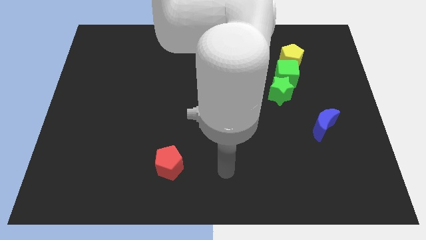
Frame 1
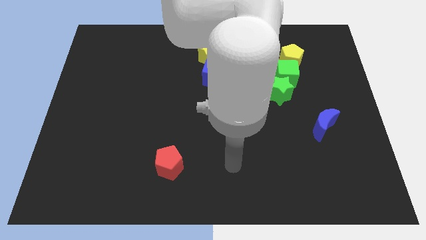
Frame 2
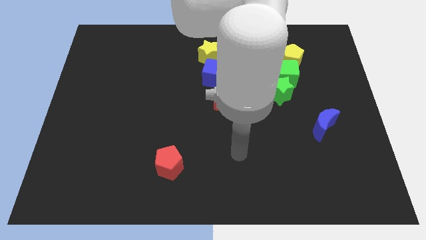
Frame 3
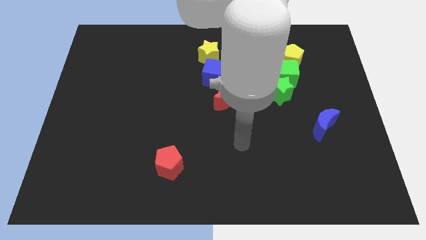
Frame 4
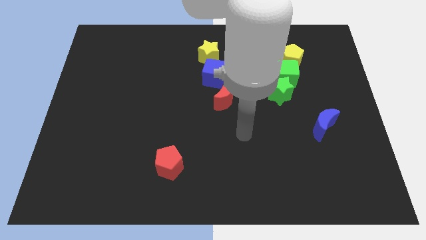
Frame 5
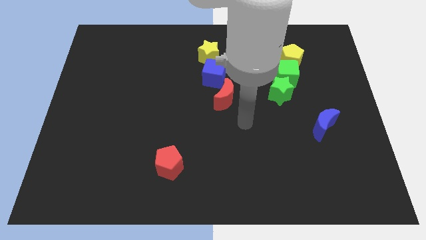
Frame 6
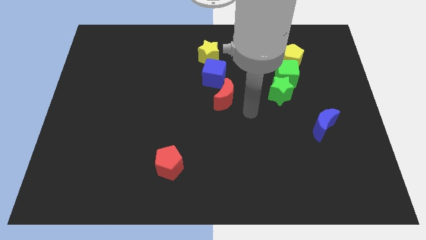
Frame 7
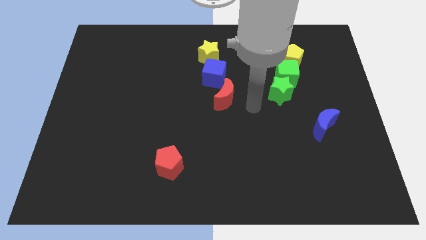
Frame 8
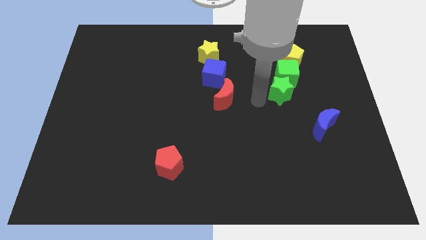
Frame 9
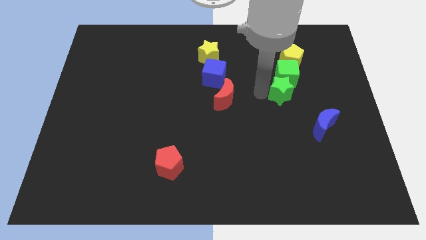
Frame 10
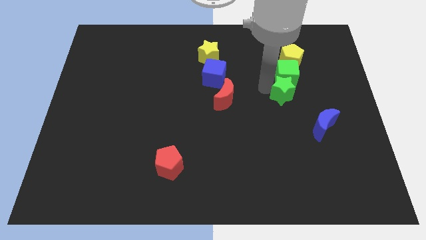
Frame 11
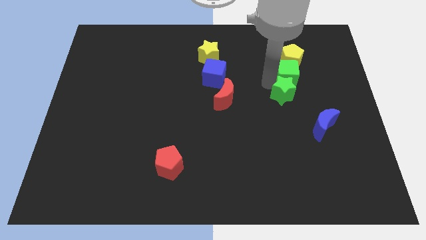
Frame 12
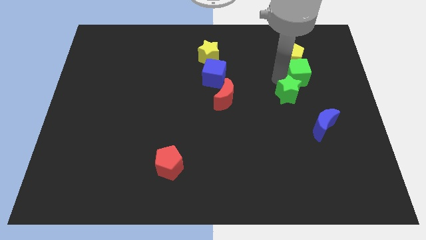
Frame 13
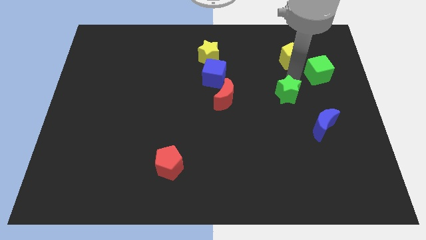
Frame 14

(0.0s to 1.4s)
pull the green star apart from the green cube

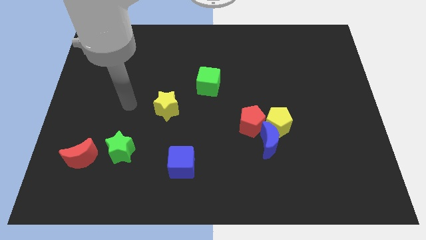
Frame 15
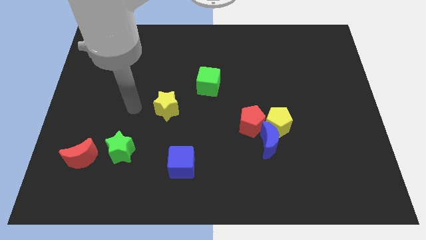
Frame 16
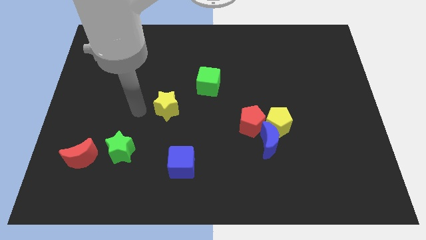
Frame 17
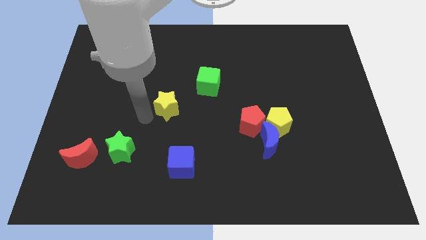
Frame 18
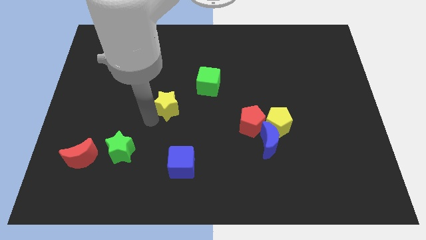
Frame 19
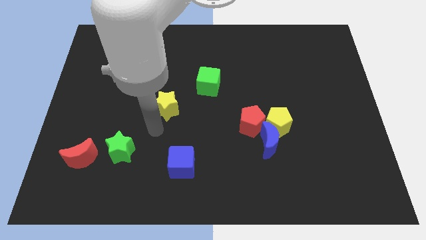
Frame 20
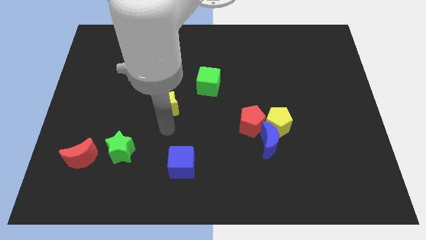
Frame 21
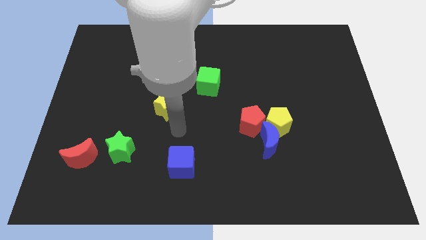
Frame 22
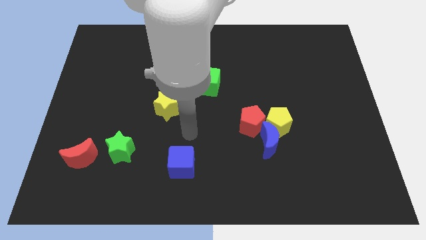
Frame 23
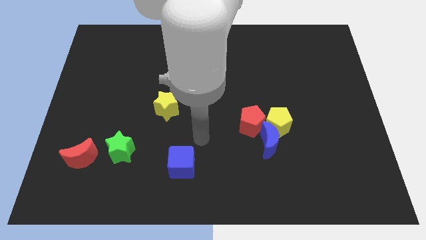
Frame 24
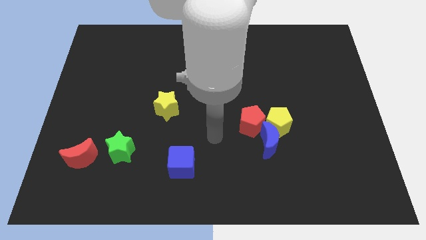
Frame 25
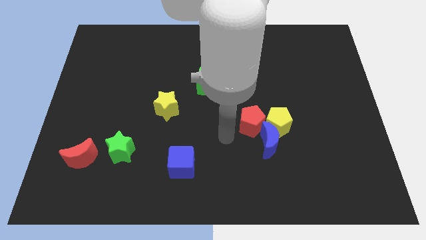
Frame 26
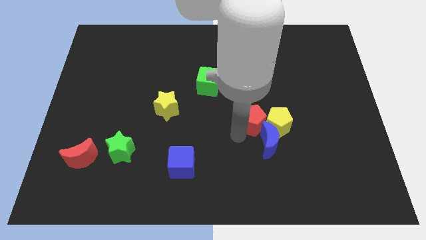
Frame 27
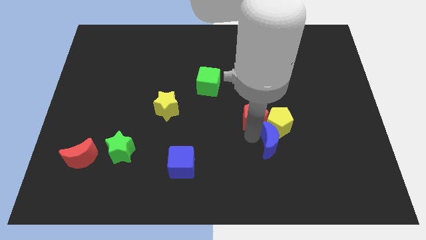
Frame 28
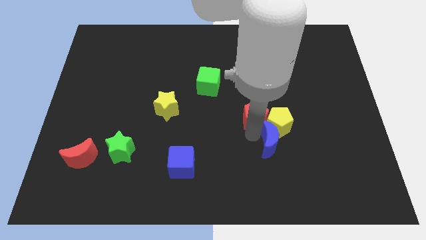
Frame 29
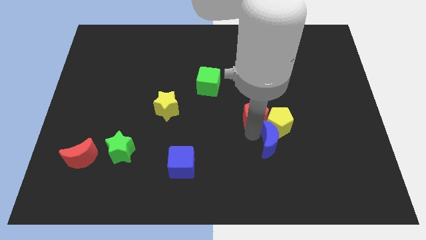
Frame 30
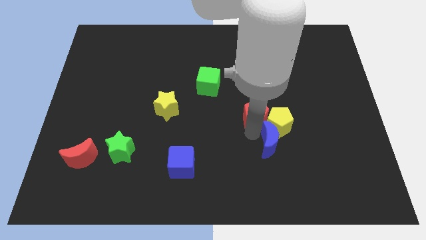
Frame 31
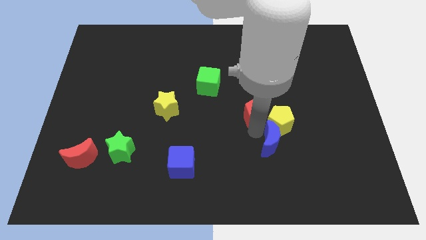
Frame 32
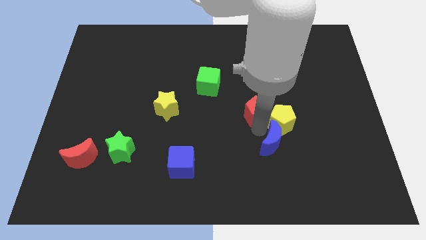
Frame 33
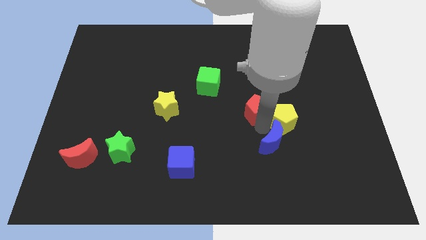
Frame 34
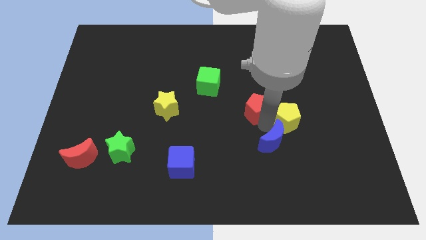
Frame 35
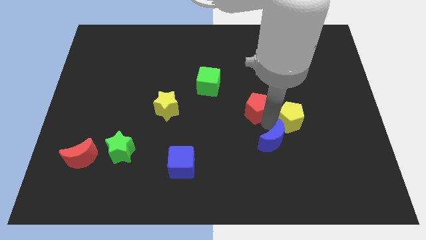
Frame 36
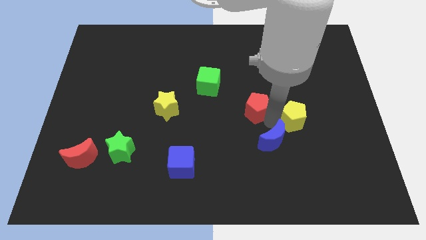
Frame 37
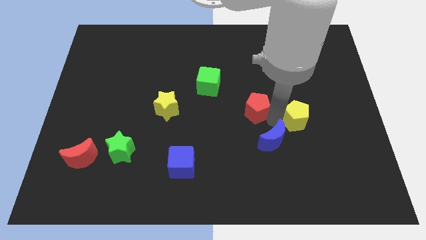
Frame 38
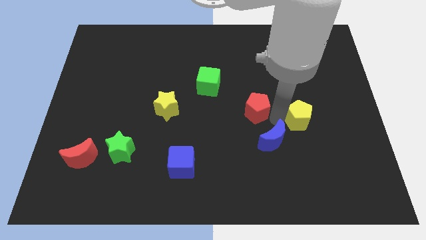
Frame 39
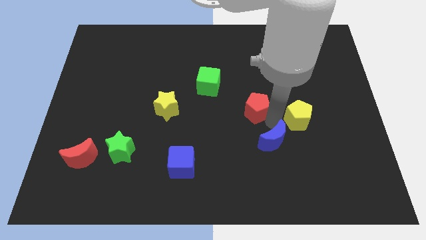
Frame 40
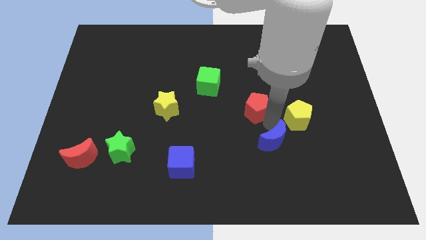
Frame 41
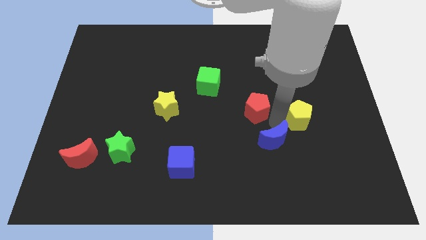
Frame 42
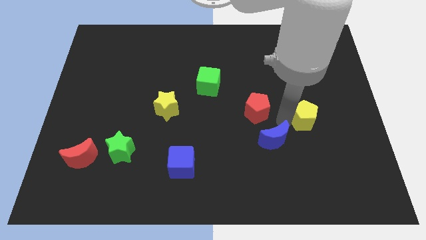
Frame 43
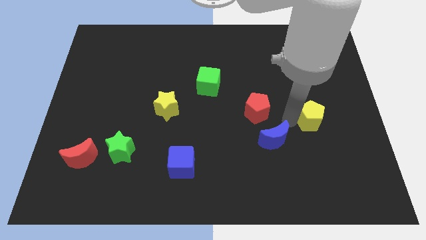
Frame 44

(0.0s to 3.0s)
separate the yellow pentagon from the blue moon and red pentagon

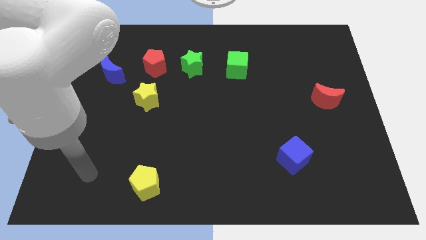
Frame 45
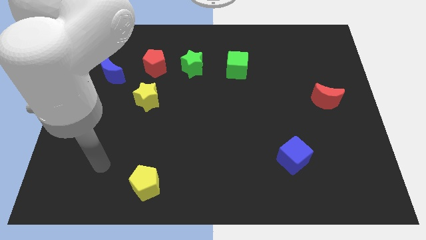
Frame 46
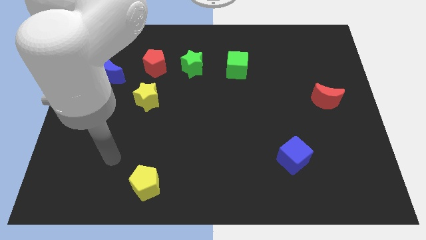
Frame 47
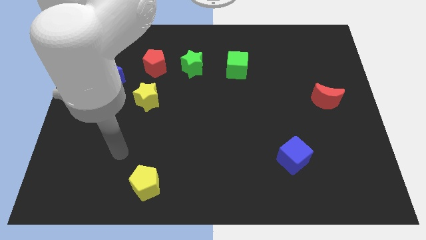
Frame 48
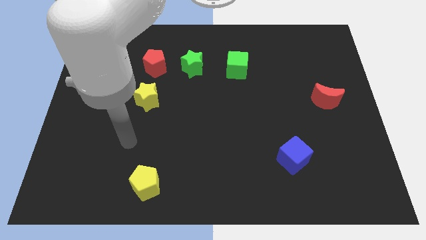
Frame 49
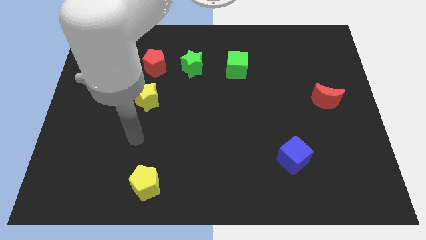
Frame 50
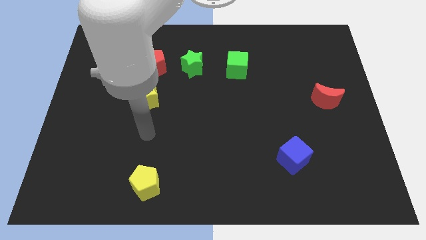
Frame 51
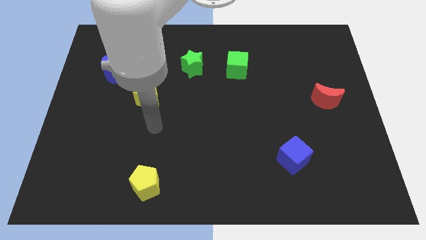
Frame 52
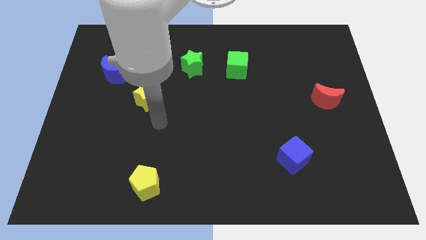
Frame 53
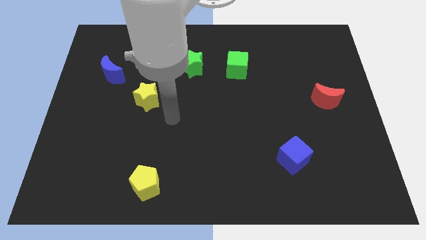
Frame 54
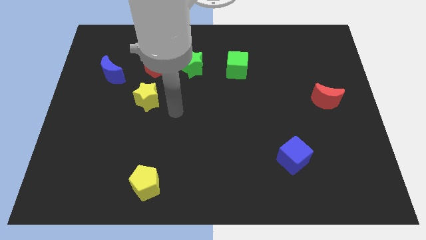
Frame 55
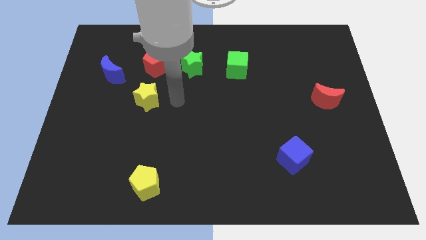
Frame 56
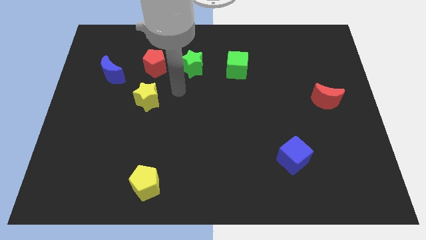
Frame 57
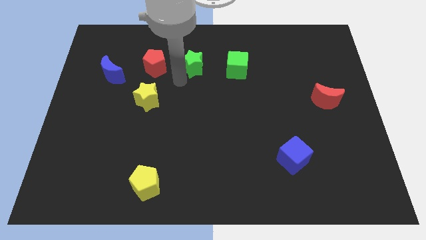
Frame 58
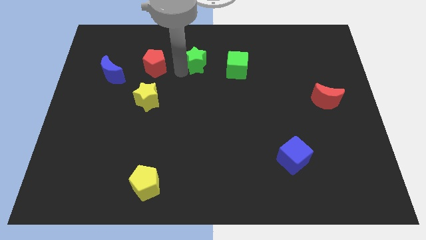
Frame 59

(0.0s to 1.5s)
separate the red pentagon from the green star

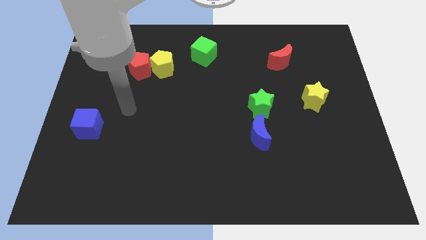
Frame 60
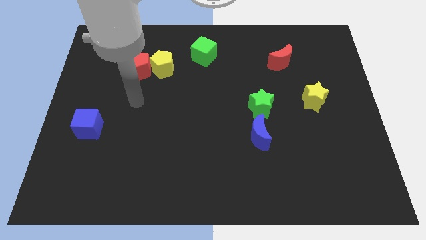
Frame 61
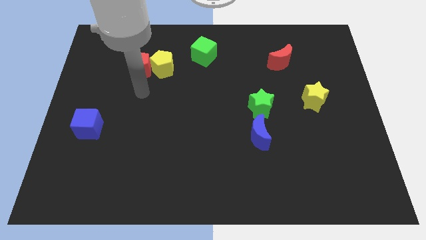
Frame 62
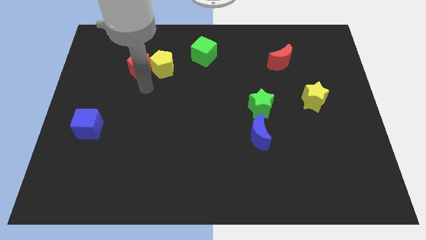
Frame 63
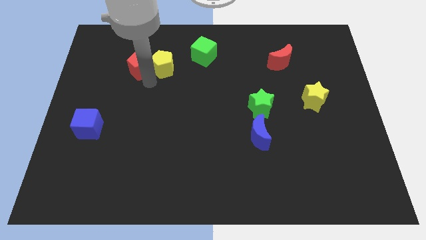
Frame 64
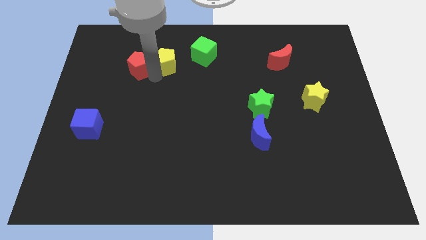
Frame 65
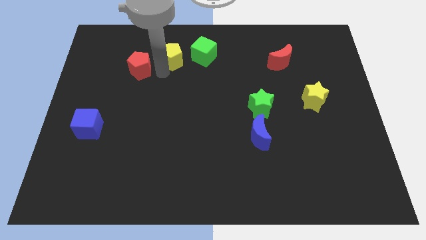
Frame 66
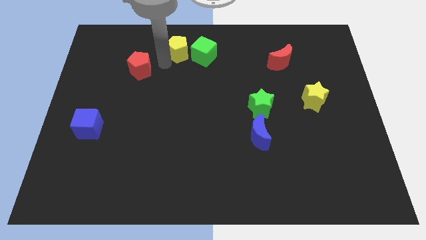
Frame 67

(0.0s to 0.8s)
separate the red pentagon from the yellow pentagon

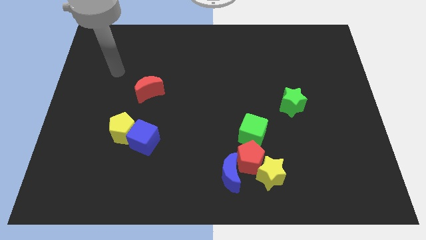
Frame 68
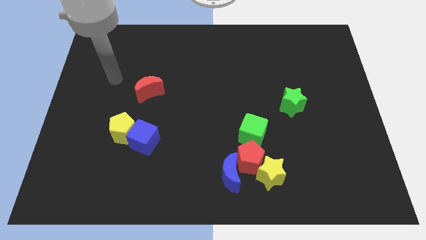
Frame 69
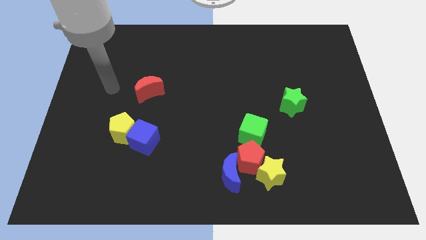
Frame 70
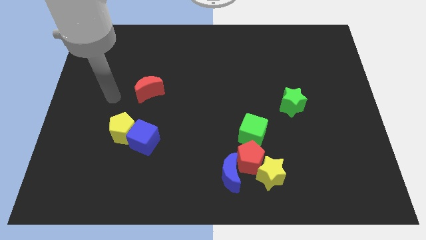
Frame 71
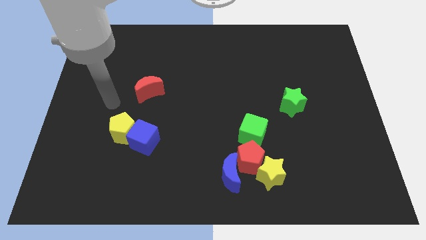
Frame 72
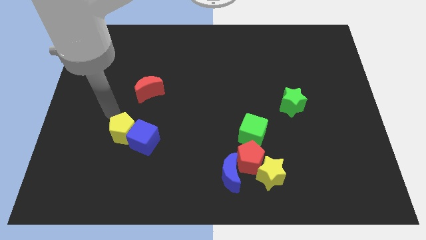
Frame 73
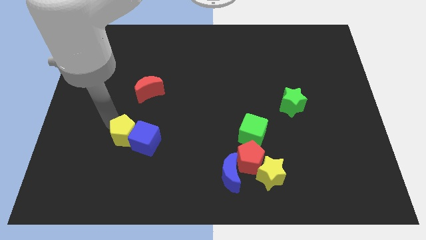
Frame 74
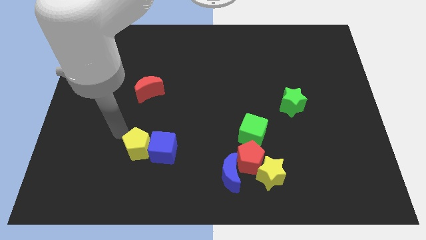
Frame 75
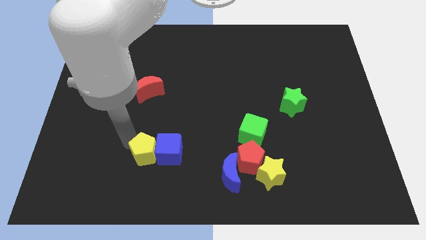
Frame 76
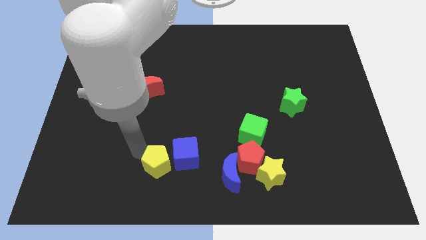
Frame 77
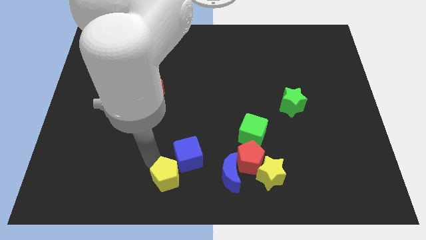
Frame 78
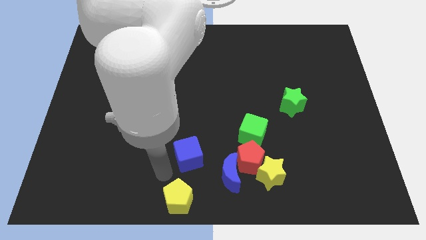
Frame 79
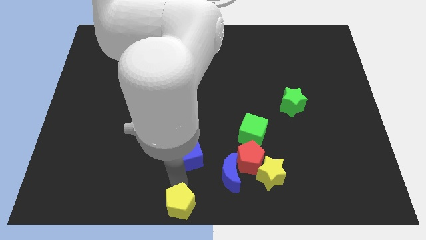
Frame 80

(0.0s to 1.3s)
move the blue cube away from the yellow pentagon

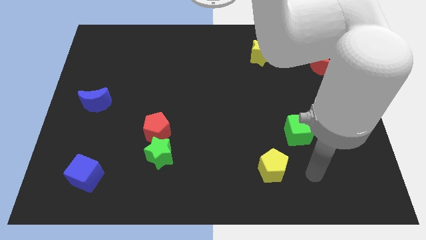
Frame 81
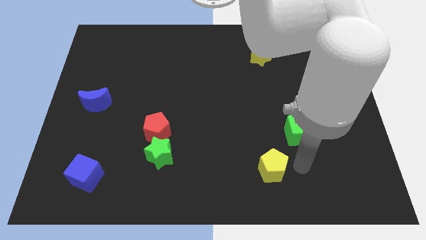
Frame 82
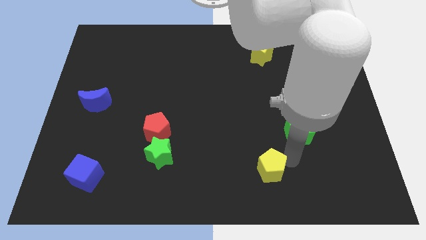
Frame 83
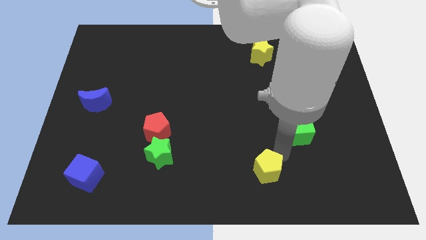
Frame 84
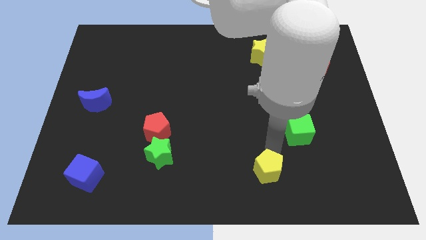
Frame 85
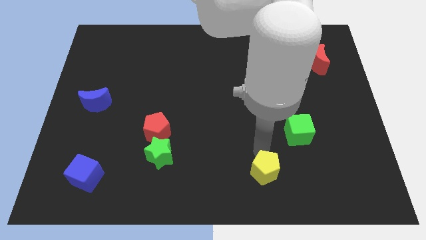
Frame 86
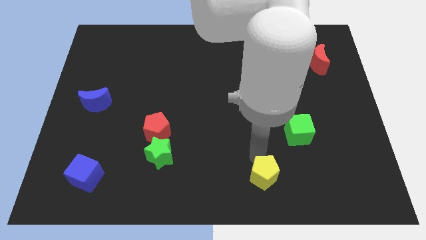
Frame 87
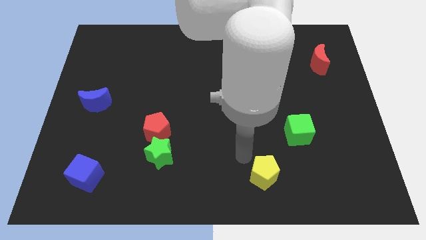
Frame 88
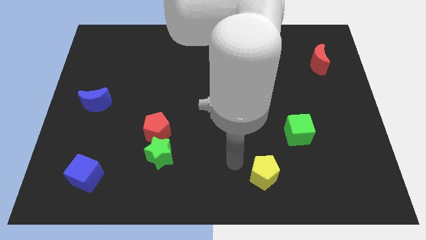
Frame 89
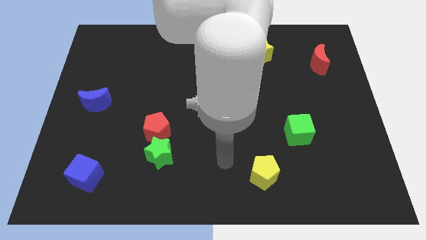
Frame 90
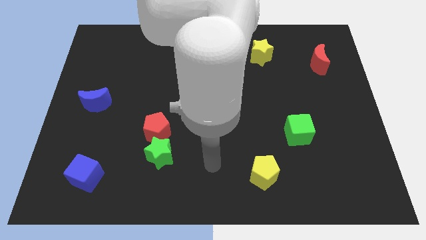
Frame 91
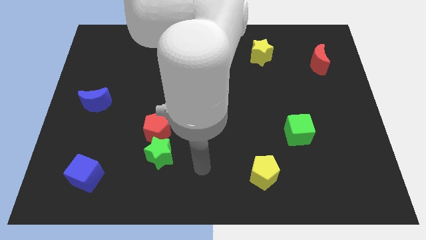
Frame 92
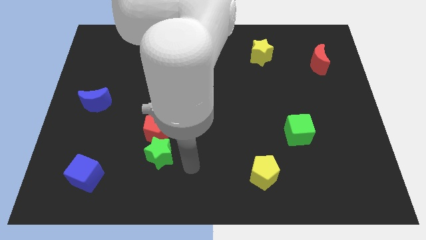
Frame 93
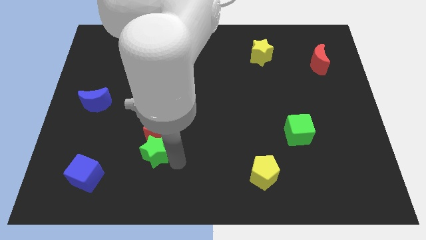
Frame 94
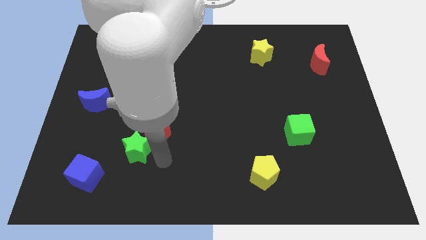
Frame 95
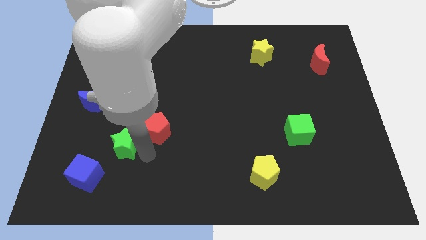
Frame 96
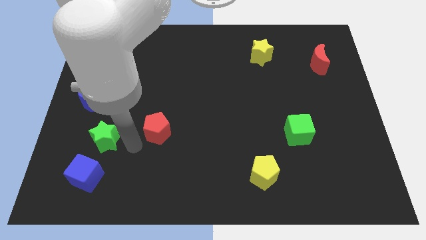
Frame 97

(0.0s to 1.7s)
pull the red pentagon apart from the green star
